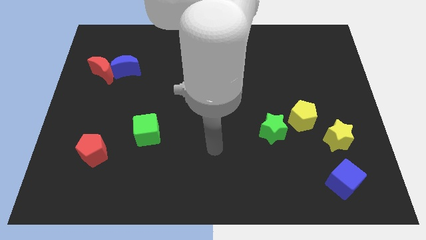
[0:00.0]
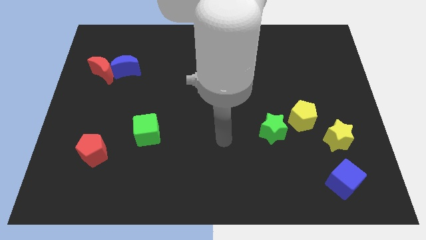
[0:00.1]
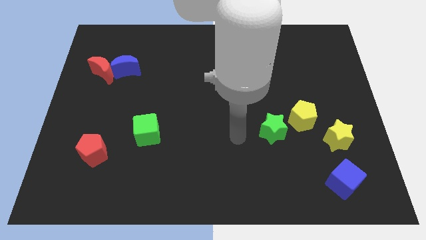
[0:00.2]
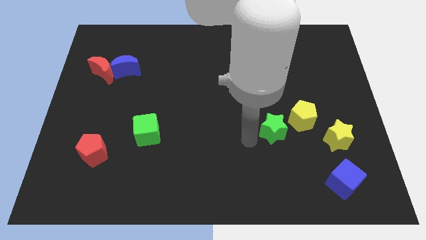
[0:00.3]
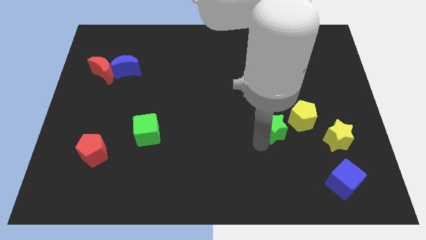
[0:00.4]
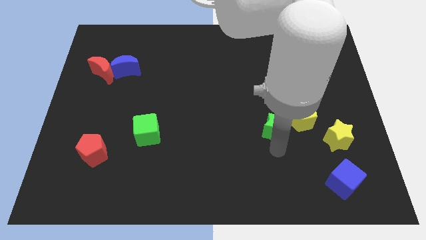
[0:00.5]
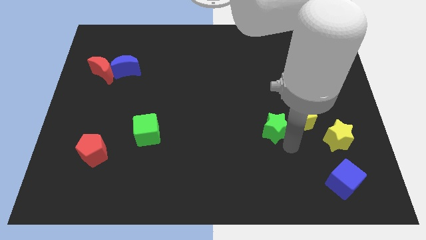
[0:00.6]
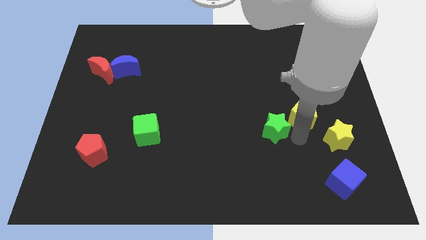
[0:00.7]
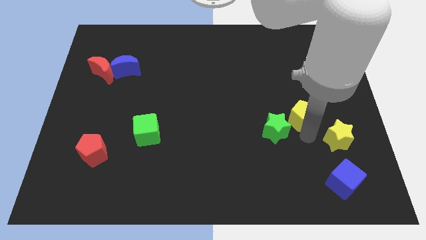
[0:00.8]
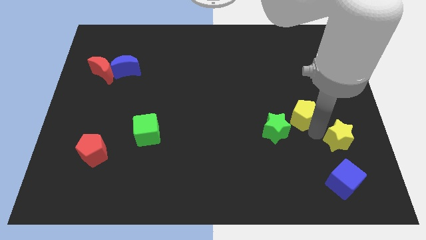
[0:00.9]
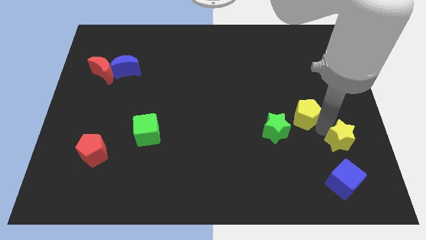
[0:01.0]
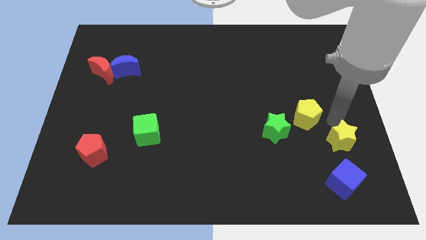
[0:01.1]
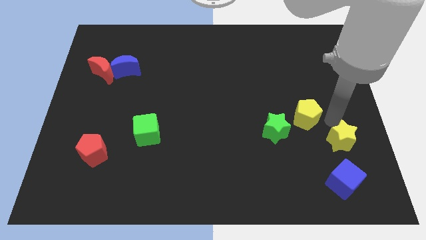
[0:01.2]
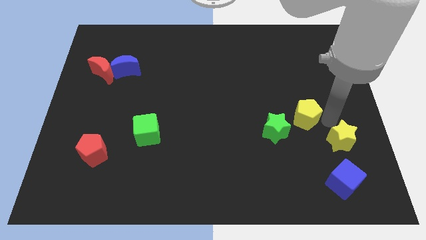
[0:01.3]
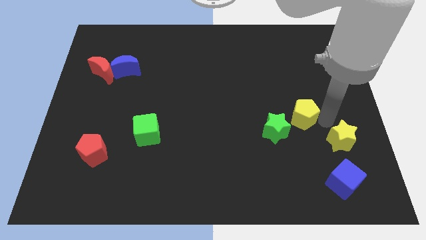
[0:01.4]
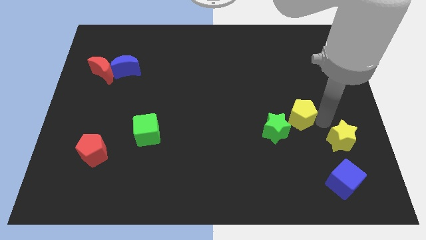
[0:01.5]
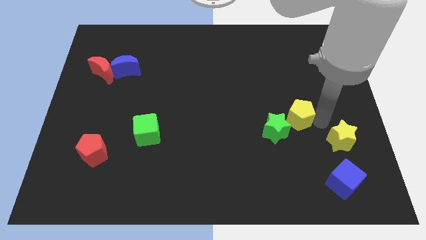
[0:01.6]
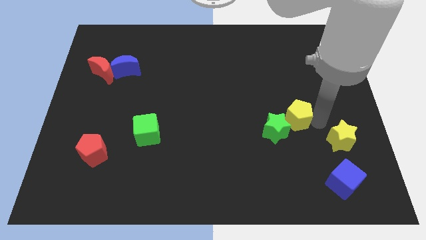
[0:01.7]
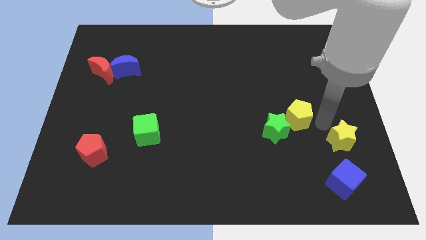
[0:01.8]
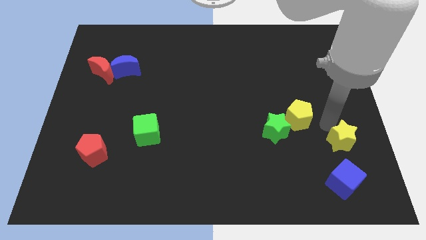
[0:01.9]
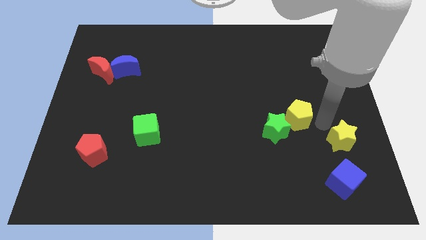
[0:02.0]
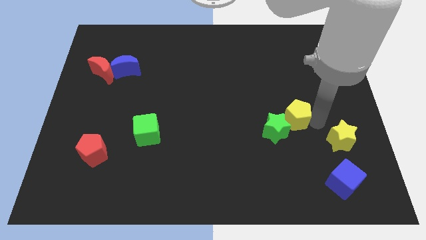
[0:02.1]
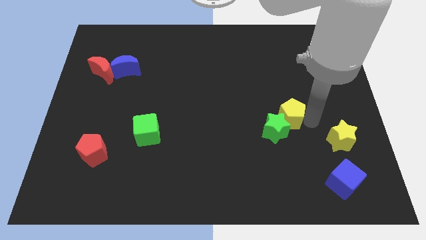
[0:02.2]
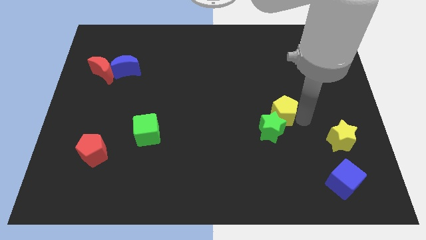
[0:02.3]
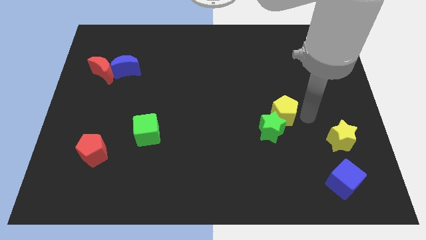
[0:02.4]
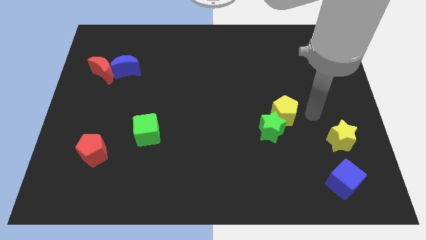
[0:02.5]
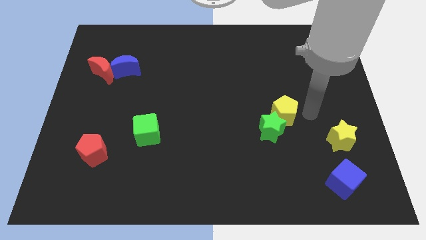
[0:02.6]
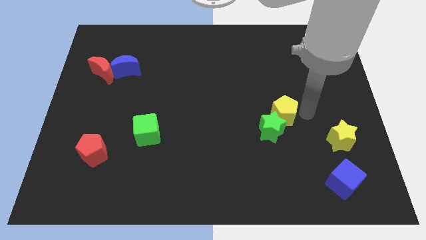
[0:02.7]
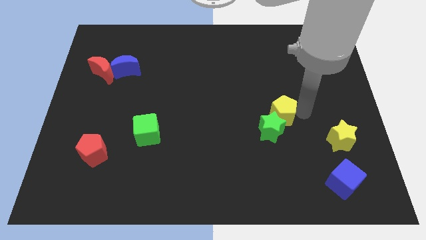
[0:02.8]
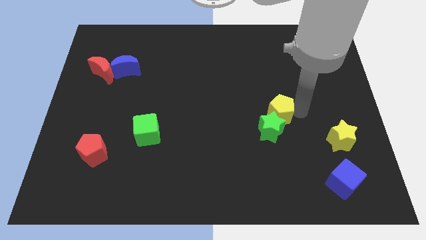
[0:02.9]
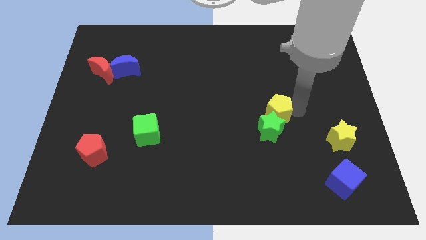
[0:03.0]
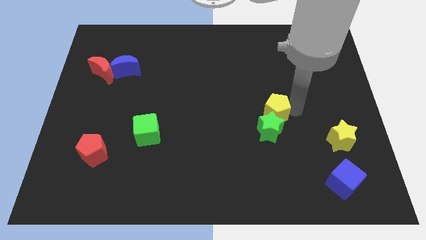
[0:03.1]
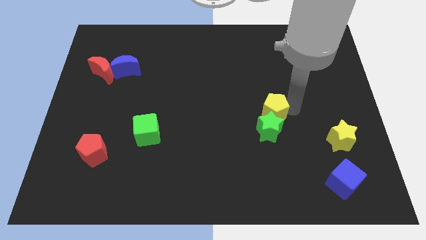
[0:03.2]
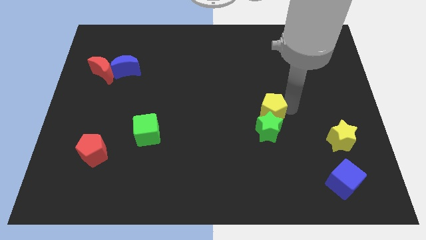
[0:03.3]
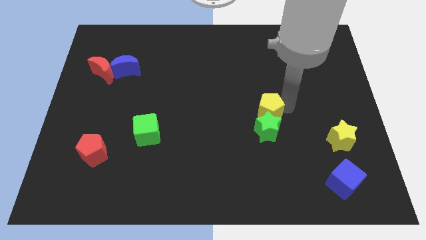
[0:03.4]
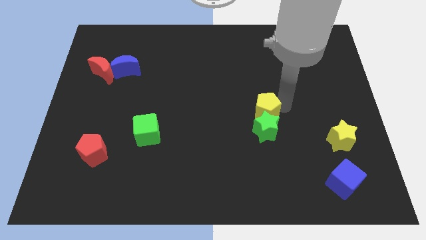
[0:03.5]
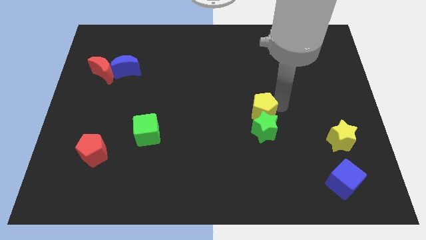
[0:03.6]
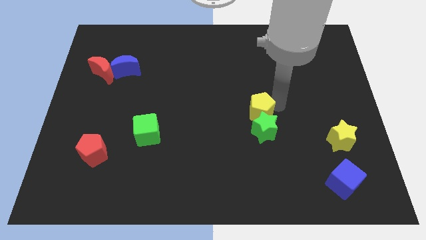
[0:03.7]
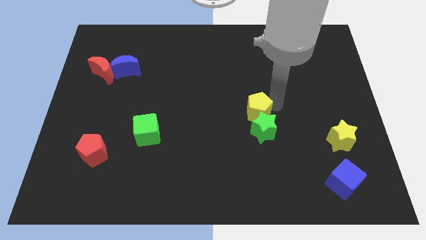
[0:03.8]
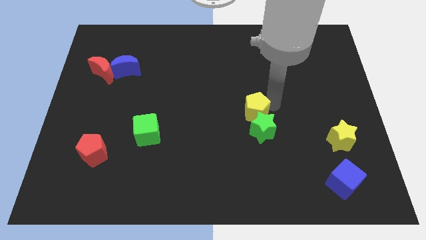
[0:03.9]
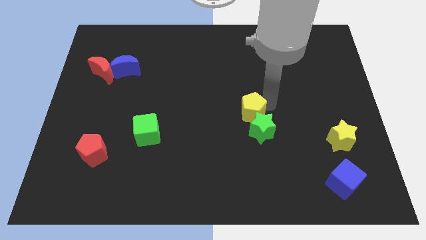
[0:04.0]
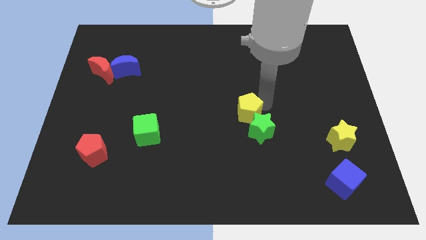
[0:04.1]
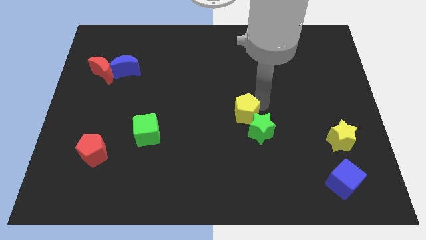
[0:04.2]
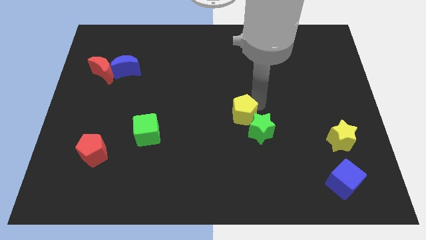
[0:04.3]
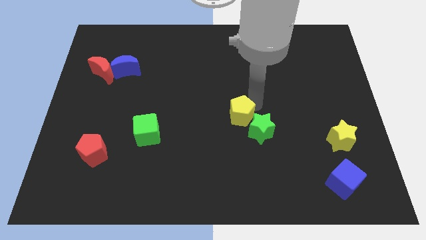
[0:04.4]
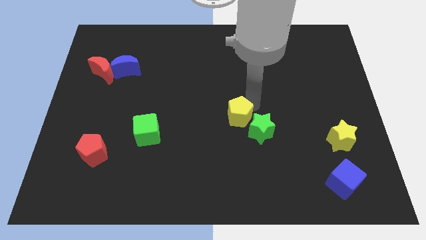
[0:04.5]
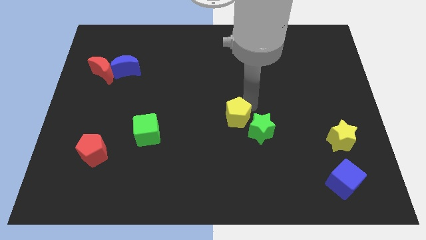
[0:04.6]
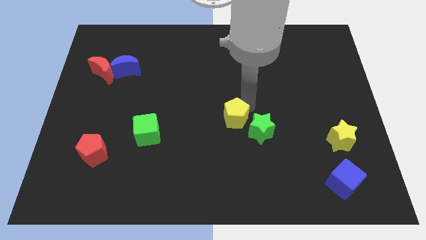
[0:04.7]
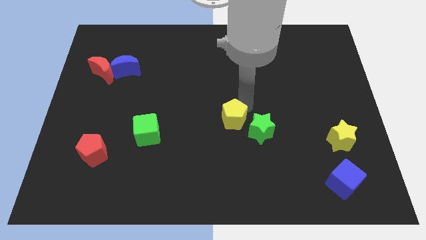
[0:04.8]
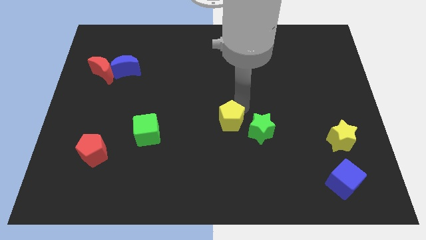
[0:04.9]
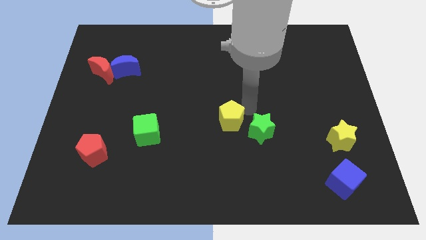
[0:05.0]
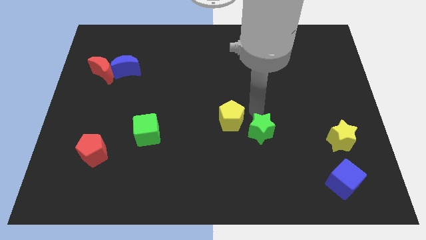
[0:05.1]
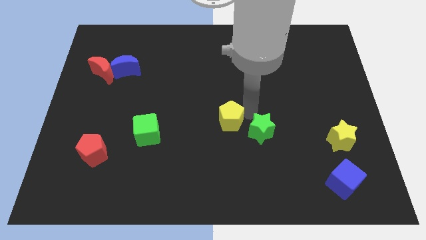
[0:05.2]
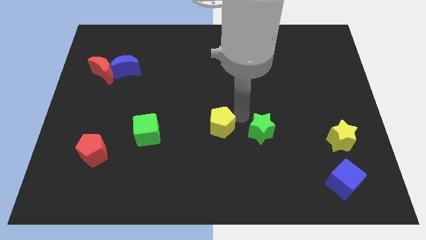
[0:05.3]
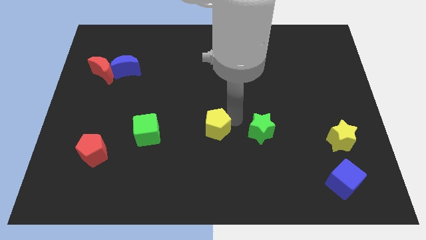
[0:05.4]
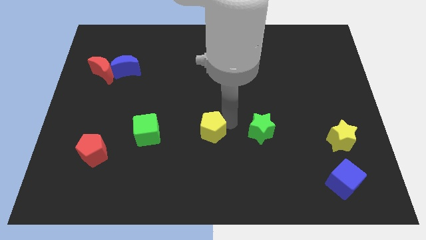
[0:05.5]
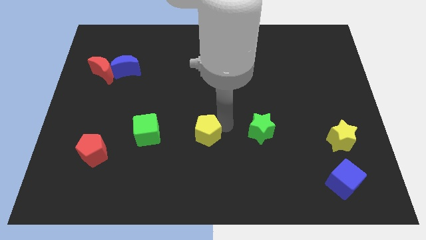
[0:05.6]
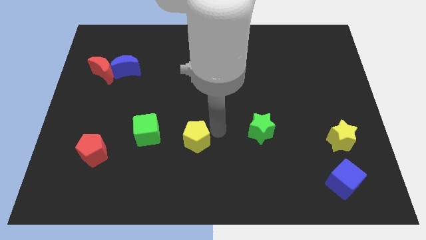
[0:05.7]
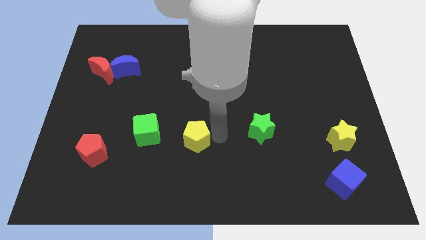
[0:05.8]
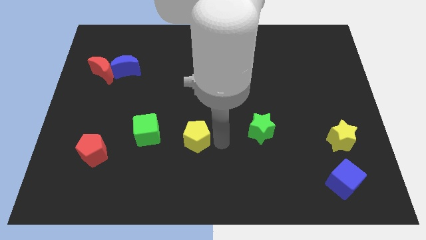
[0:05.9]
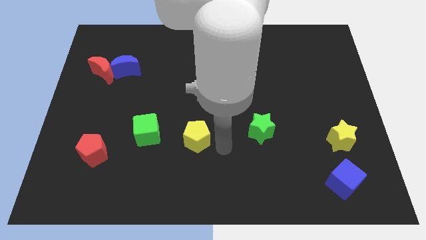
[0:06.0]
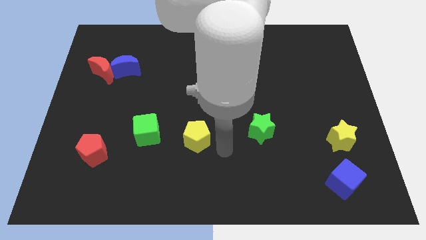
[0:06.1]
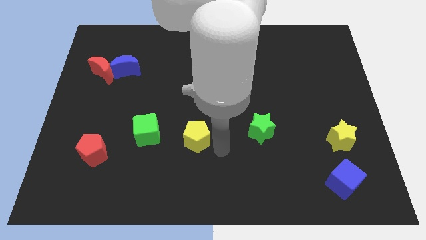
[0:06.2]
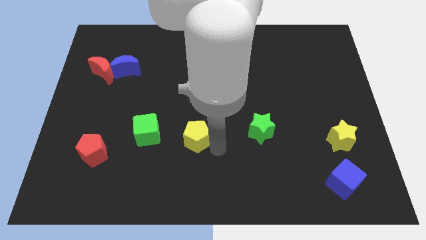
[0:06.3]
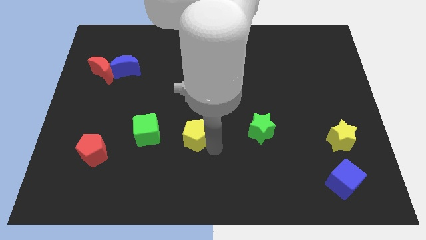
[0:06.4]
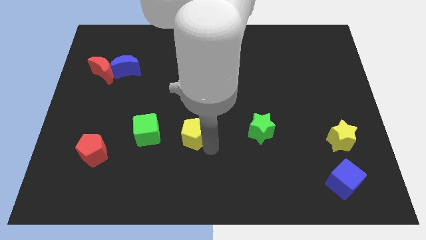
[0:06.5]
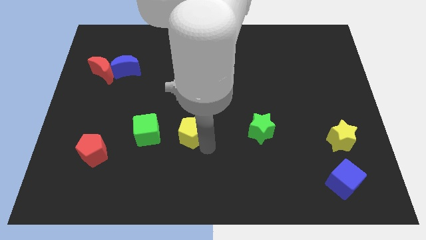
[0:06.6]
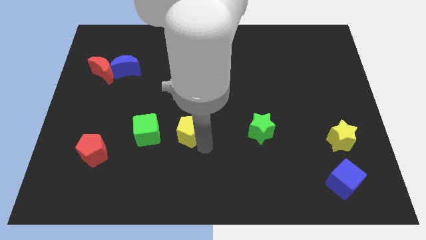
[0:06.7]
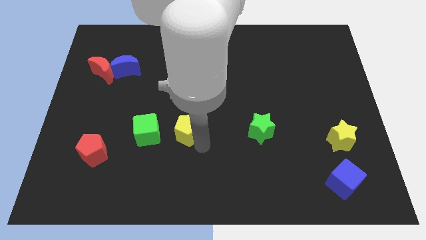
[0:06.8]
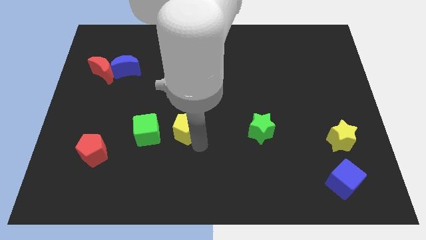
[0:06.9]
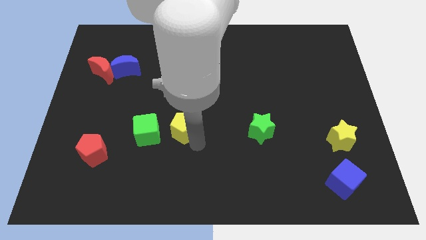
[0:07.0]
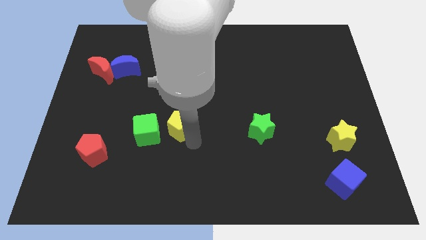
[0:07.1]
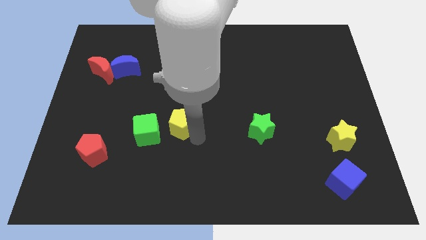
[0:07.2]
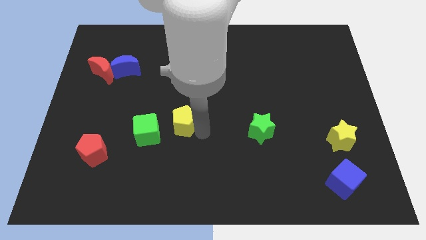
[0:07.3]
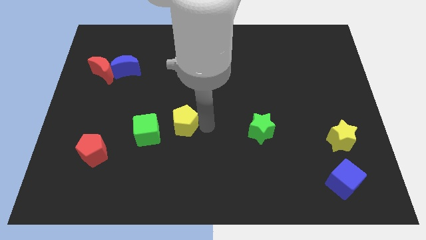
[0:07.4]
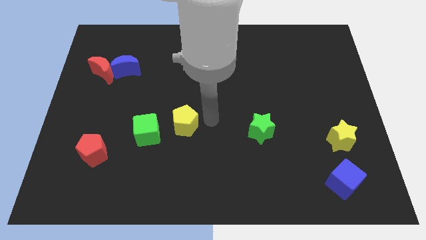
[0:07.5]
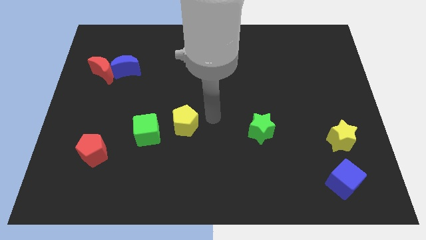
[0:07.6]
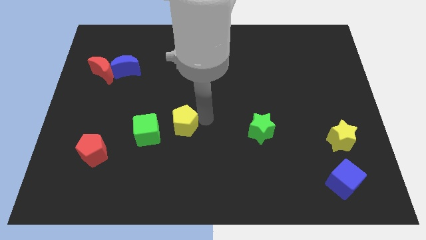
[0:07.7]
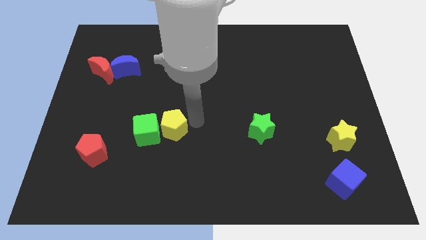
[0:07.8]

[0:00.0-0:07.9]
move the yellow pentagon close to the green cube
